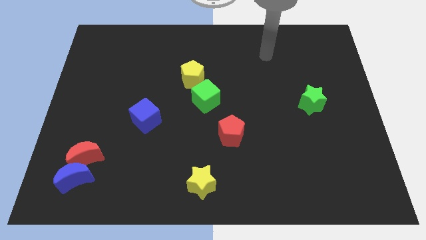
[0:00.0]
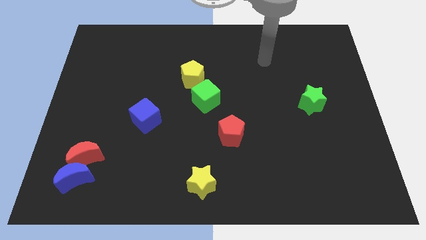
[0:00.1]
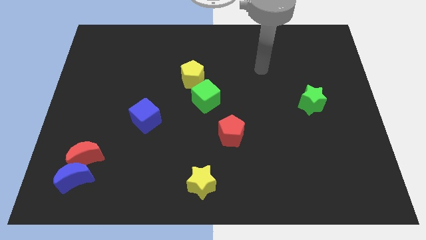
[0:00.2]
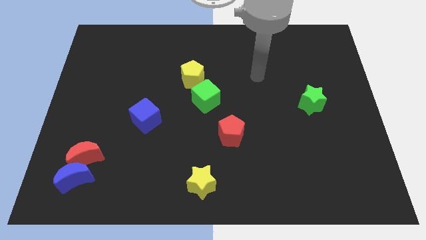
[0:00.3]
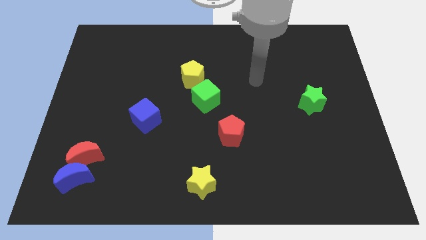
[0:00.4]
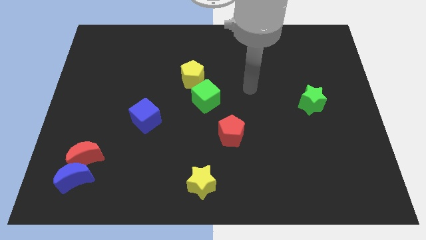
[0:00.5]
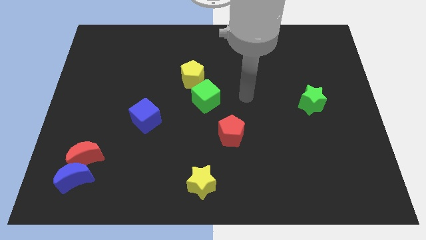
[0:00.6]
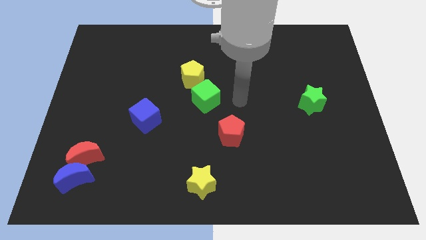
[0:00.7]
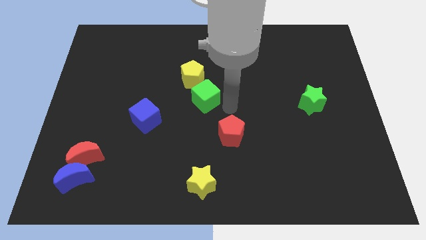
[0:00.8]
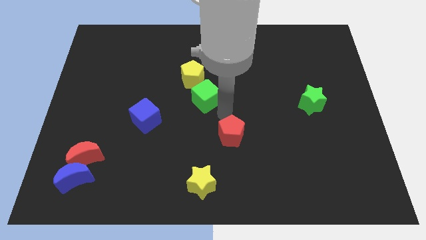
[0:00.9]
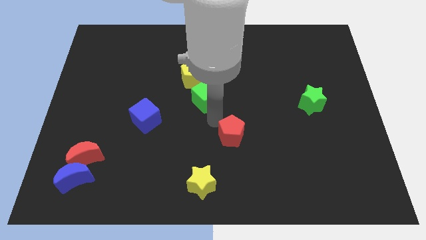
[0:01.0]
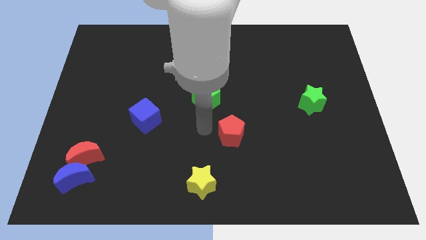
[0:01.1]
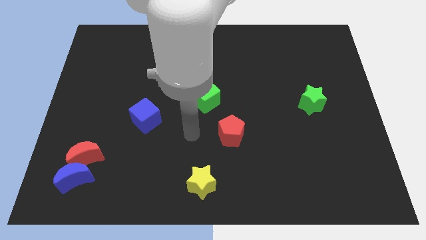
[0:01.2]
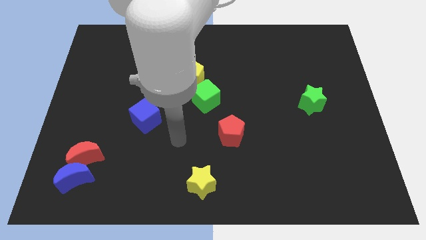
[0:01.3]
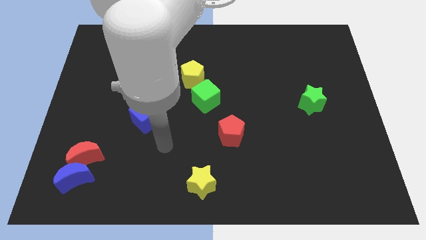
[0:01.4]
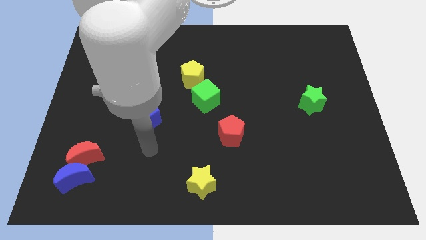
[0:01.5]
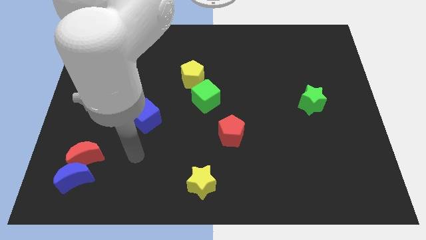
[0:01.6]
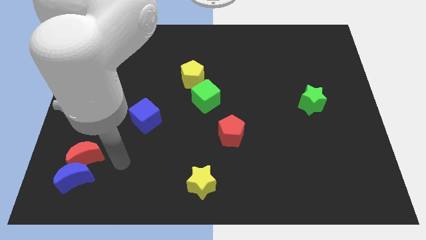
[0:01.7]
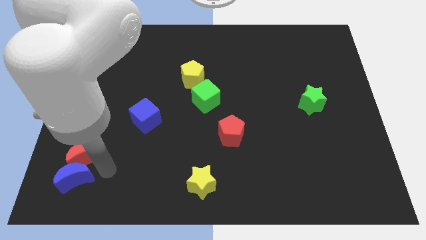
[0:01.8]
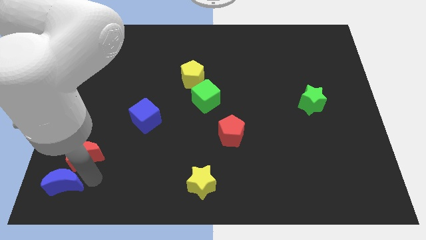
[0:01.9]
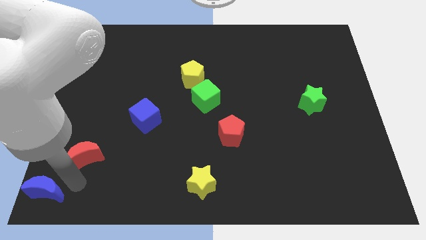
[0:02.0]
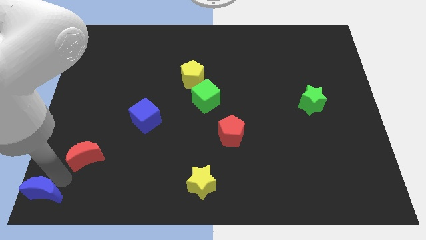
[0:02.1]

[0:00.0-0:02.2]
move the red moon away from the blue moon

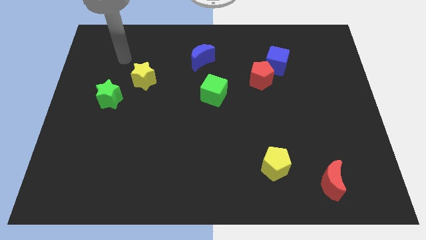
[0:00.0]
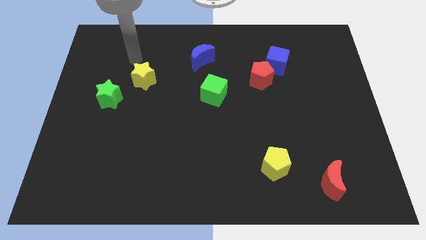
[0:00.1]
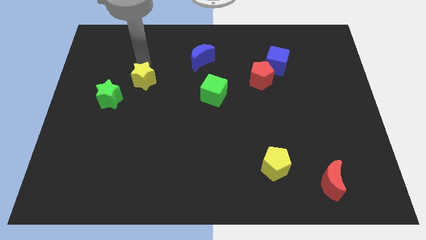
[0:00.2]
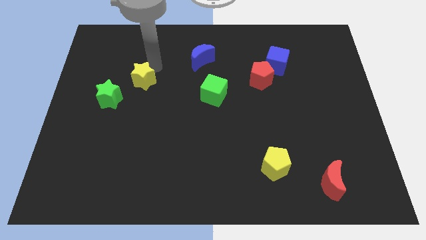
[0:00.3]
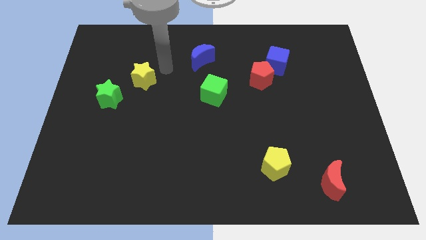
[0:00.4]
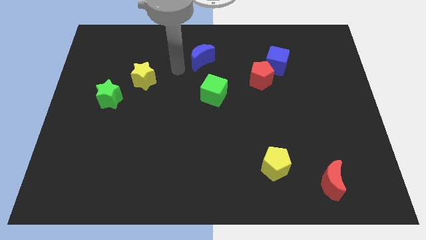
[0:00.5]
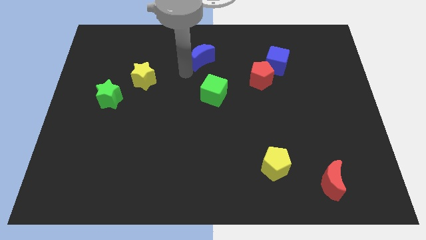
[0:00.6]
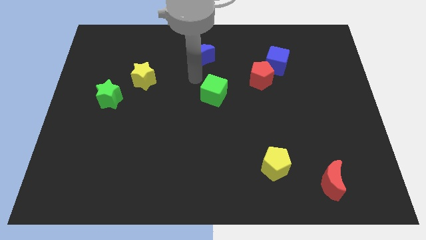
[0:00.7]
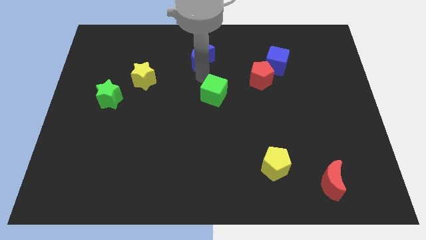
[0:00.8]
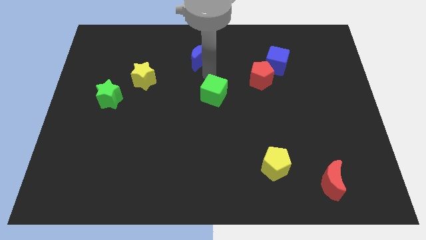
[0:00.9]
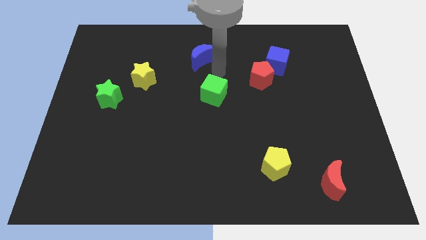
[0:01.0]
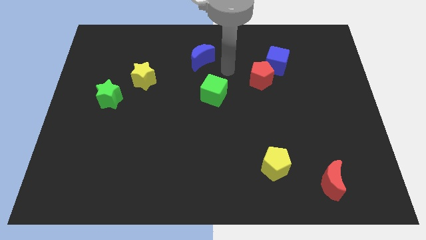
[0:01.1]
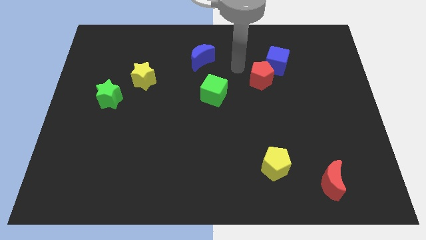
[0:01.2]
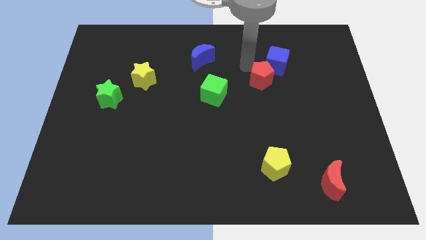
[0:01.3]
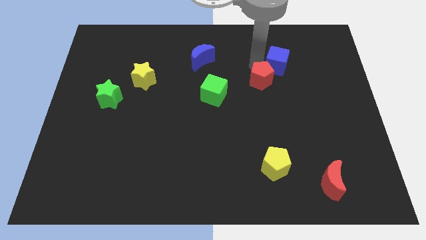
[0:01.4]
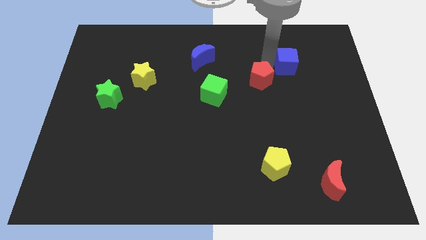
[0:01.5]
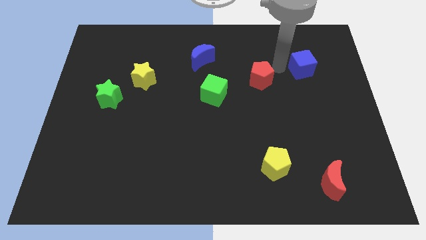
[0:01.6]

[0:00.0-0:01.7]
separate the red pentagon from the blue cube

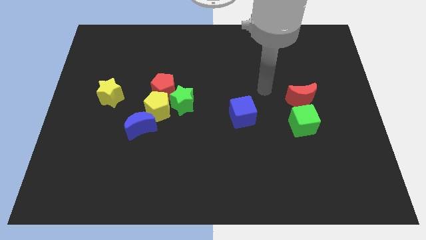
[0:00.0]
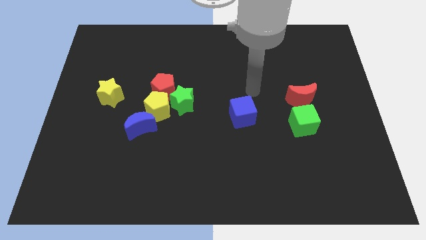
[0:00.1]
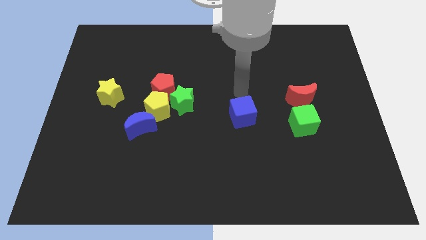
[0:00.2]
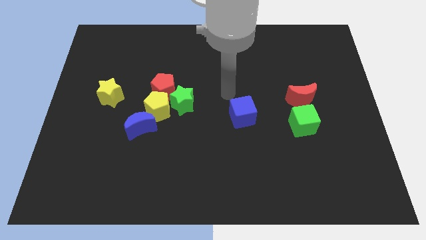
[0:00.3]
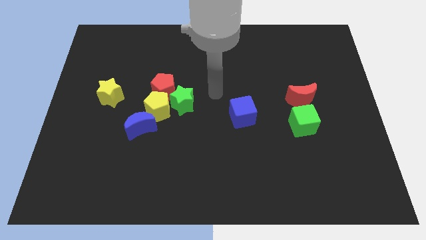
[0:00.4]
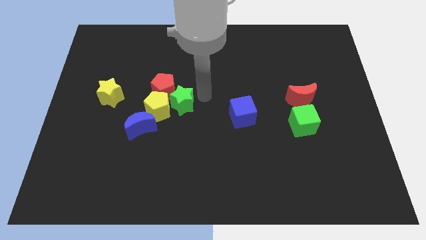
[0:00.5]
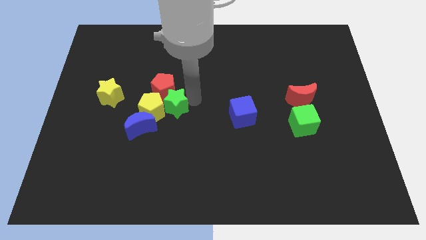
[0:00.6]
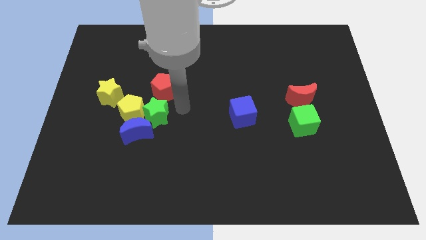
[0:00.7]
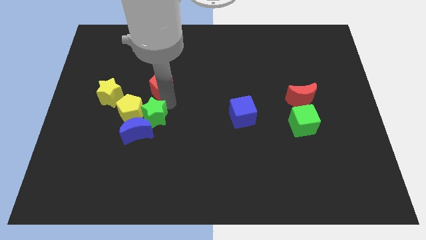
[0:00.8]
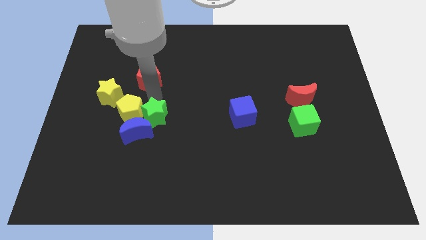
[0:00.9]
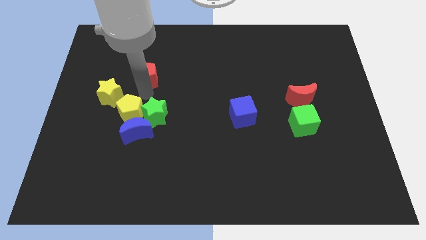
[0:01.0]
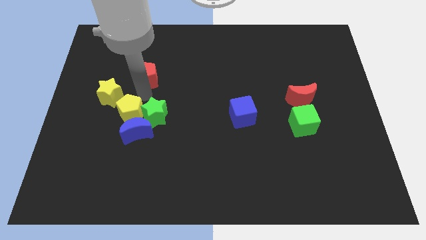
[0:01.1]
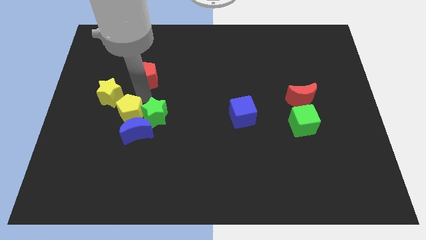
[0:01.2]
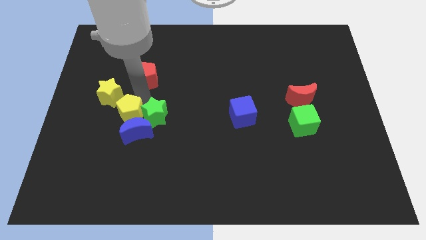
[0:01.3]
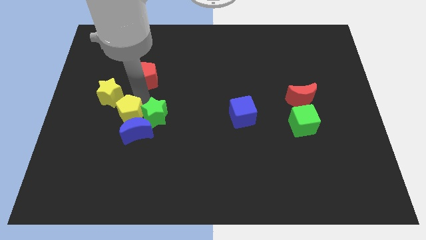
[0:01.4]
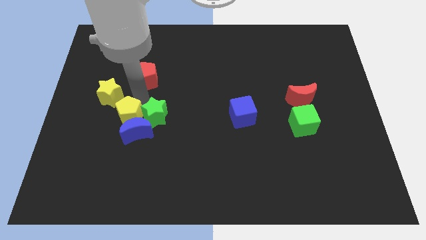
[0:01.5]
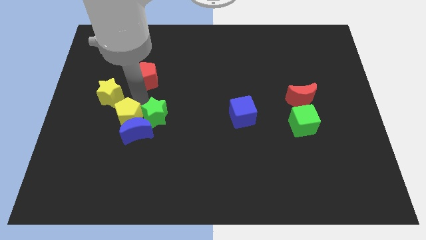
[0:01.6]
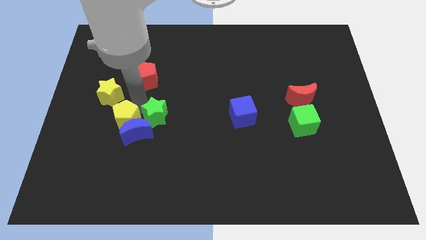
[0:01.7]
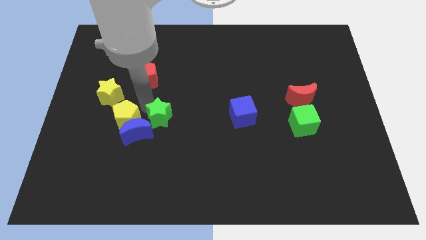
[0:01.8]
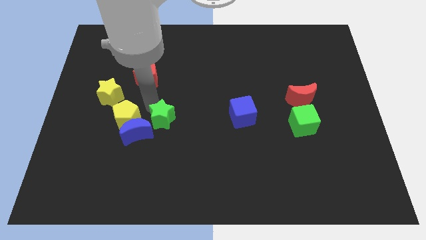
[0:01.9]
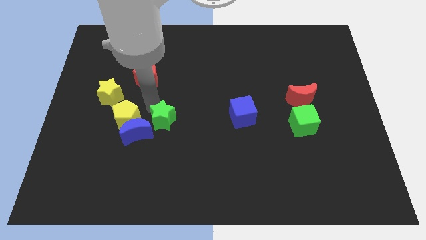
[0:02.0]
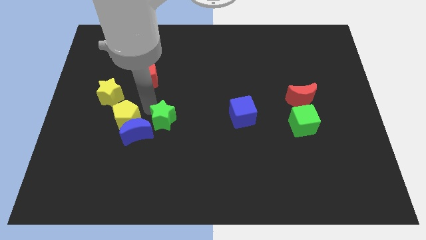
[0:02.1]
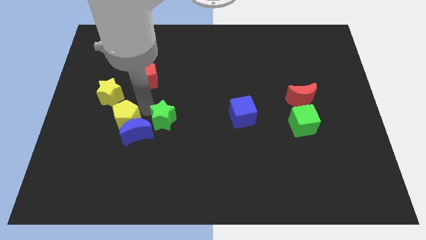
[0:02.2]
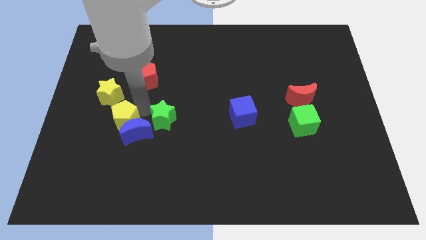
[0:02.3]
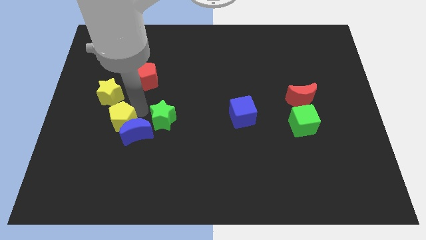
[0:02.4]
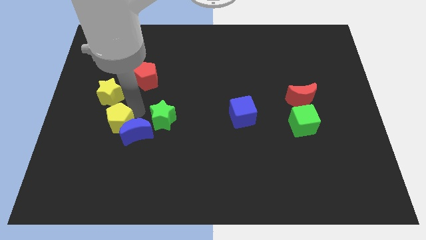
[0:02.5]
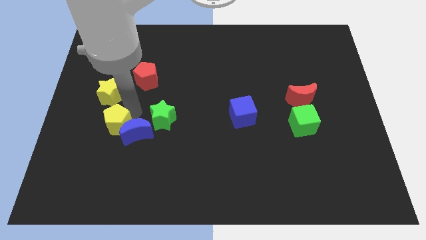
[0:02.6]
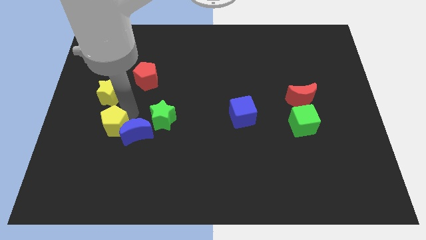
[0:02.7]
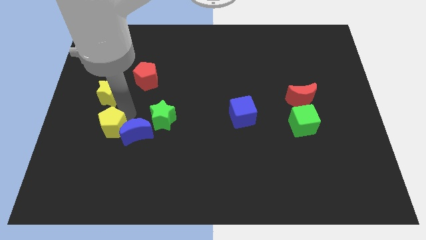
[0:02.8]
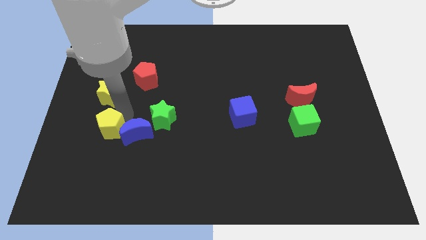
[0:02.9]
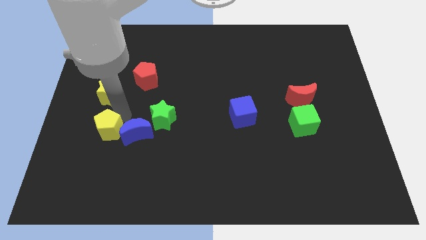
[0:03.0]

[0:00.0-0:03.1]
move the yellow pentagon away from the clump

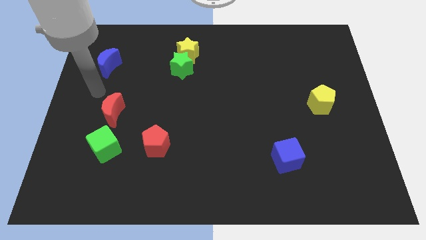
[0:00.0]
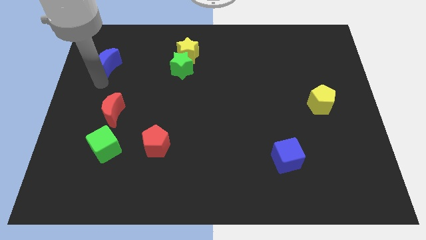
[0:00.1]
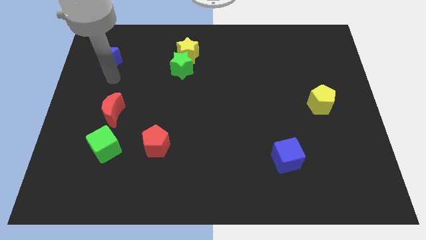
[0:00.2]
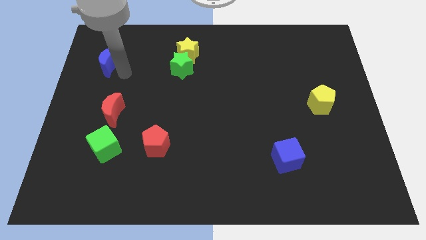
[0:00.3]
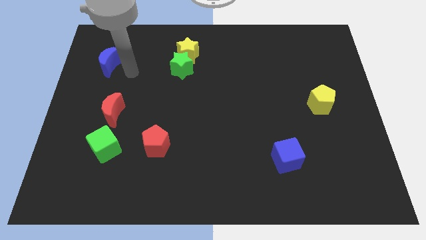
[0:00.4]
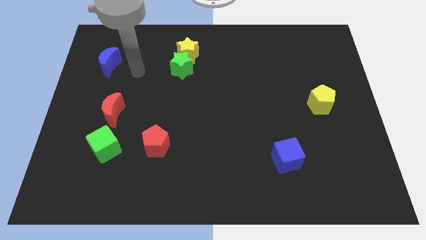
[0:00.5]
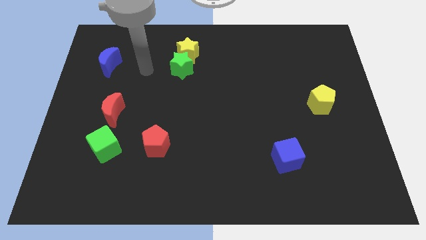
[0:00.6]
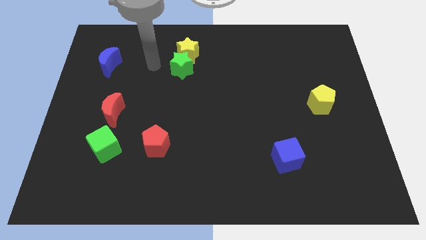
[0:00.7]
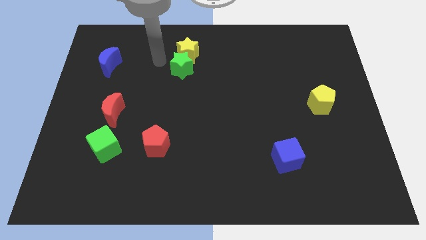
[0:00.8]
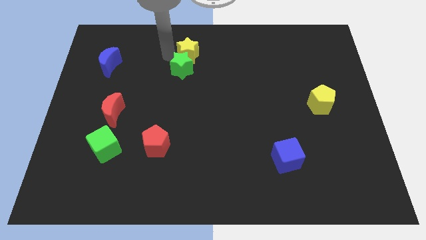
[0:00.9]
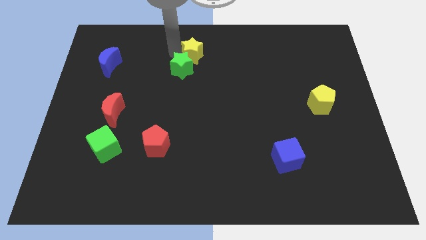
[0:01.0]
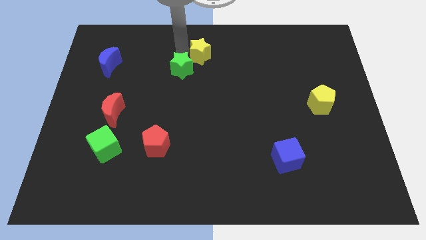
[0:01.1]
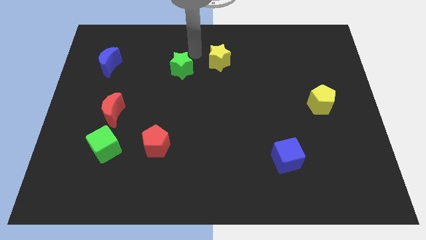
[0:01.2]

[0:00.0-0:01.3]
pull the green star apart from the yellow star

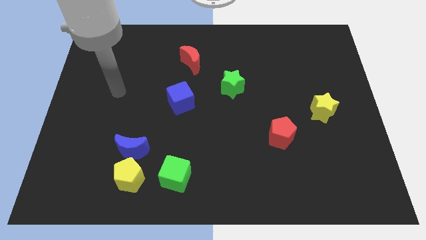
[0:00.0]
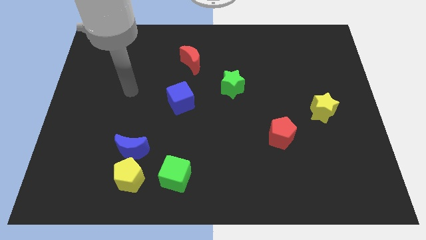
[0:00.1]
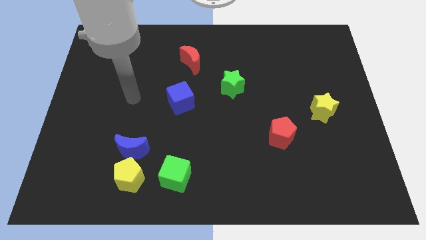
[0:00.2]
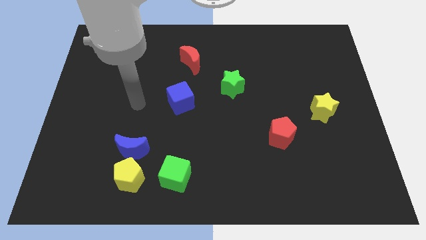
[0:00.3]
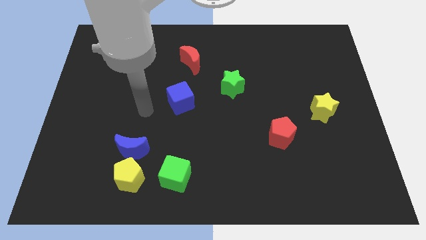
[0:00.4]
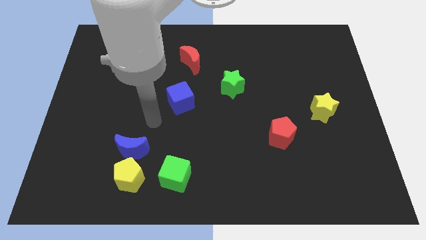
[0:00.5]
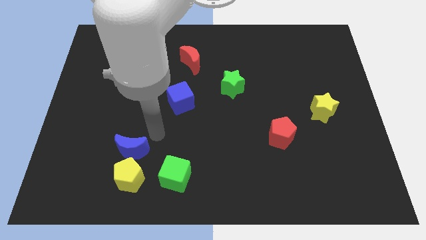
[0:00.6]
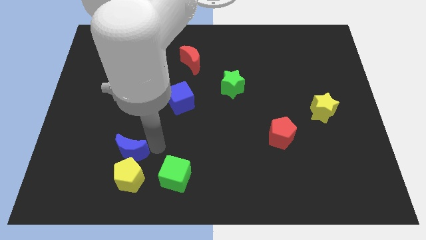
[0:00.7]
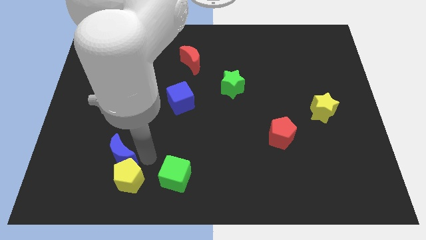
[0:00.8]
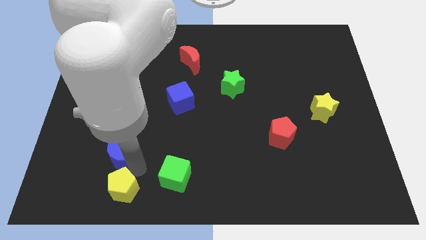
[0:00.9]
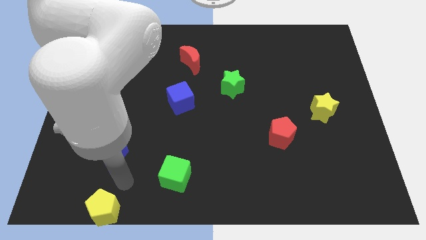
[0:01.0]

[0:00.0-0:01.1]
move the blue moon away from the yellow pentagon
